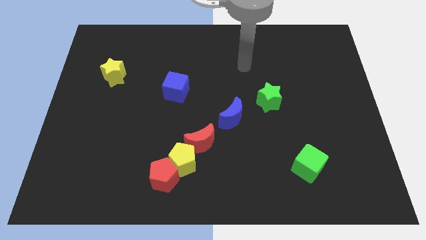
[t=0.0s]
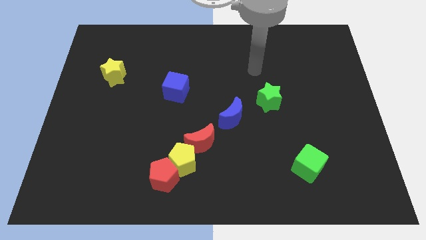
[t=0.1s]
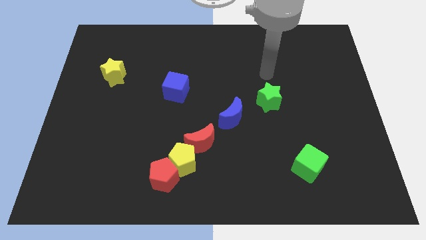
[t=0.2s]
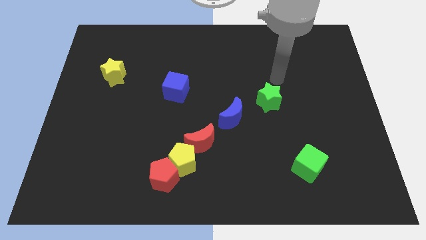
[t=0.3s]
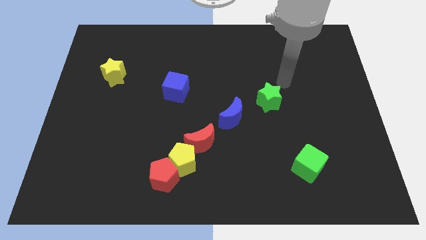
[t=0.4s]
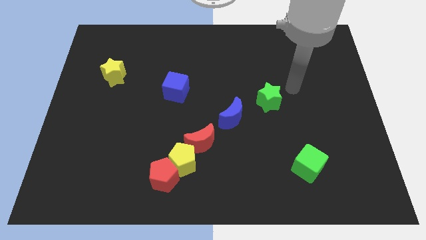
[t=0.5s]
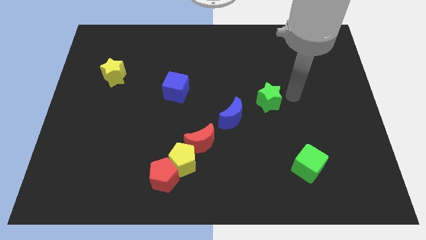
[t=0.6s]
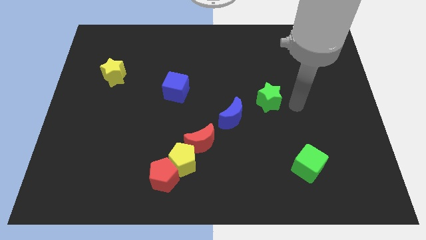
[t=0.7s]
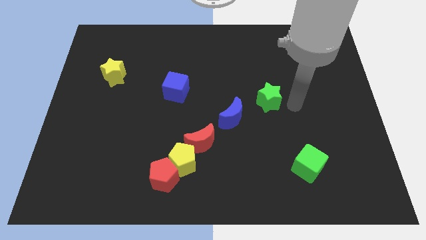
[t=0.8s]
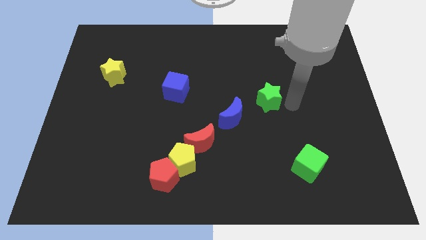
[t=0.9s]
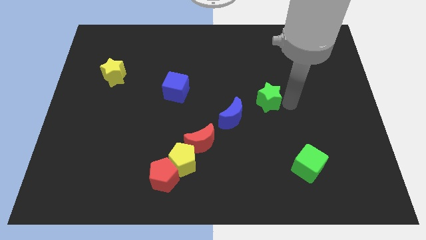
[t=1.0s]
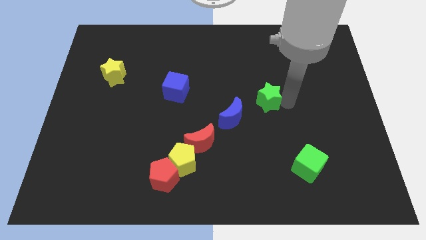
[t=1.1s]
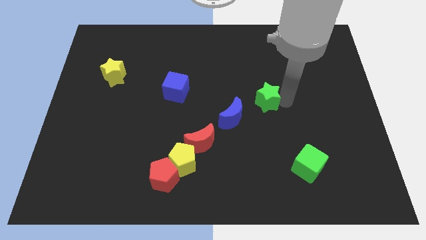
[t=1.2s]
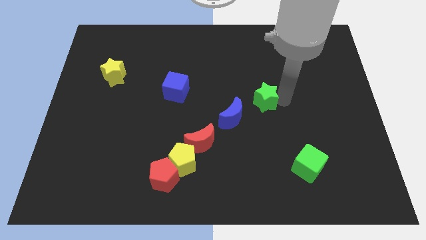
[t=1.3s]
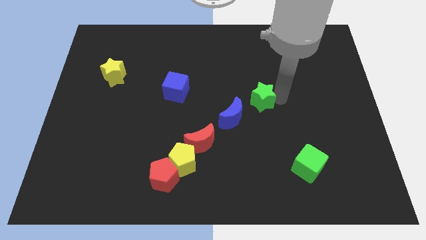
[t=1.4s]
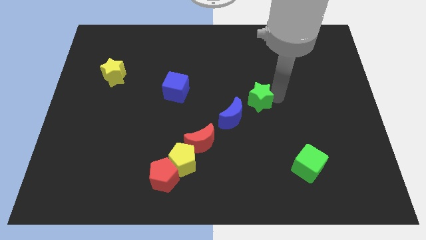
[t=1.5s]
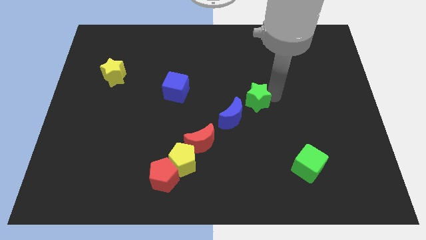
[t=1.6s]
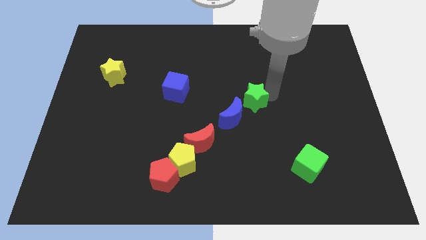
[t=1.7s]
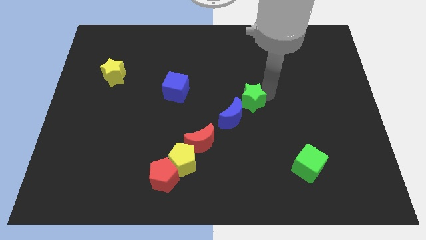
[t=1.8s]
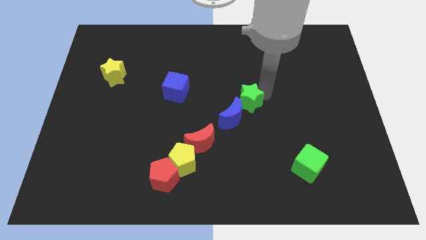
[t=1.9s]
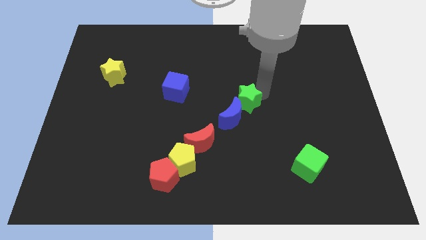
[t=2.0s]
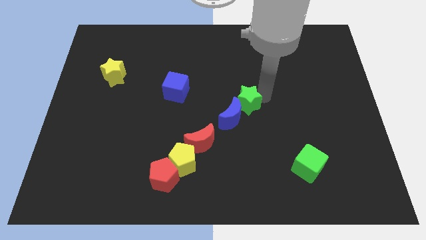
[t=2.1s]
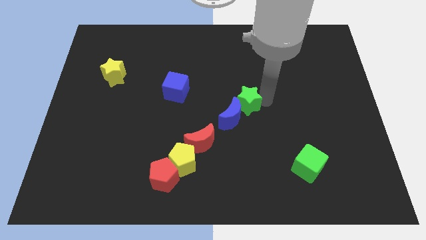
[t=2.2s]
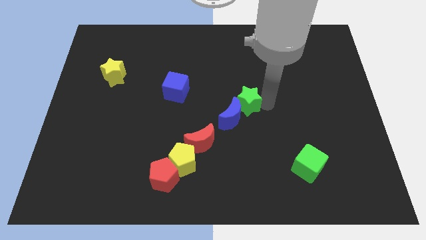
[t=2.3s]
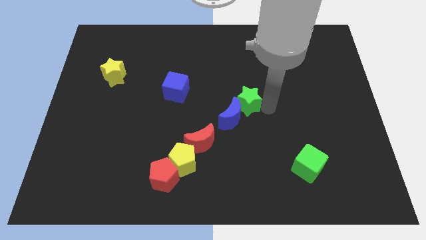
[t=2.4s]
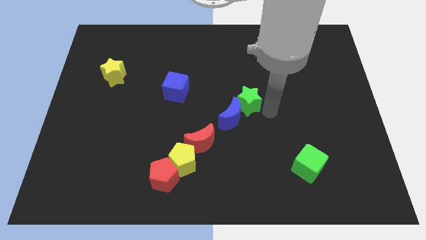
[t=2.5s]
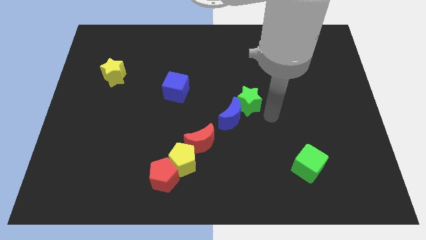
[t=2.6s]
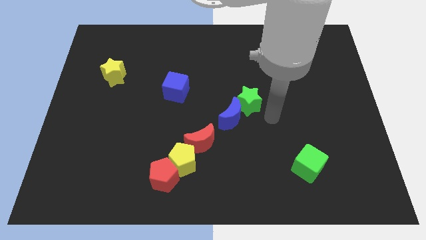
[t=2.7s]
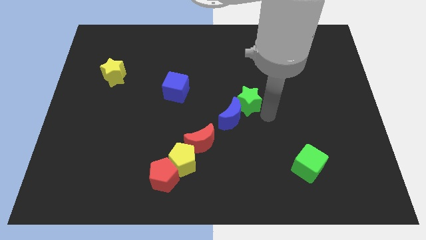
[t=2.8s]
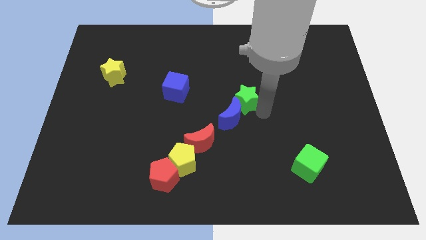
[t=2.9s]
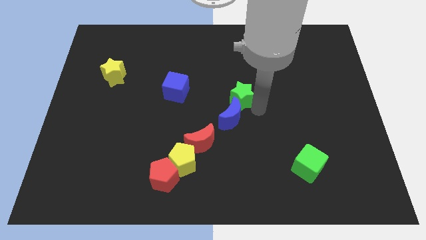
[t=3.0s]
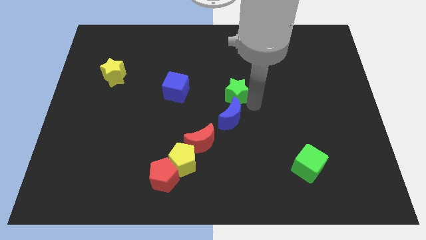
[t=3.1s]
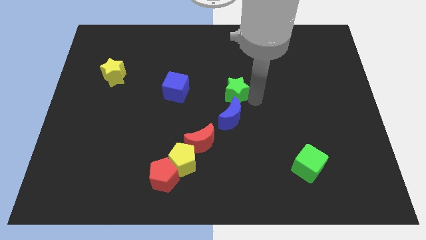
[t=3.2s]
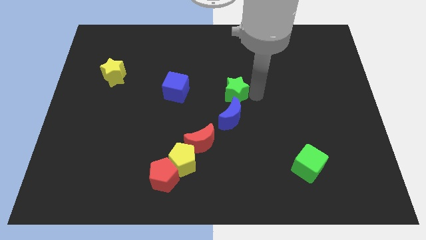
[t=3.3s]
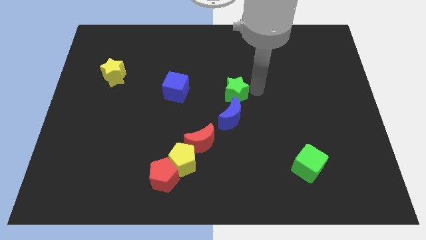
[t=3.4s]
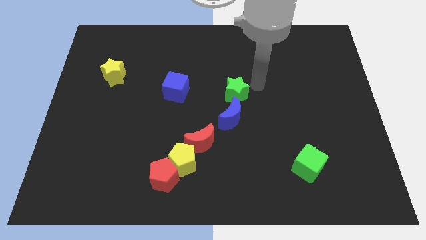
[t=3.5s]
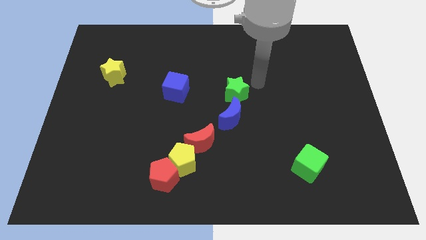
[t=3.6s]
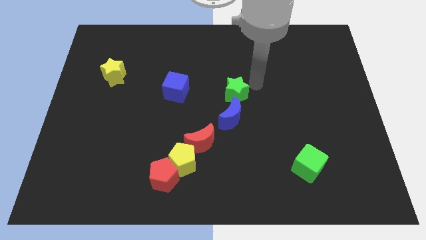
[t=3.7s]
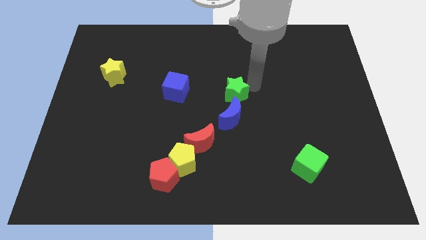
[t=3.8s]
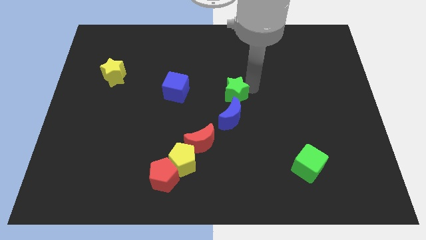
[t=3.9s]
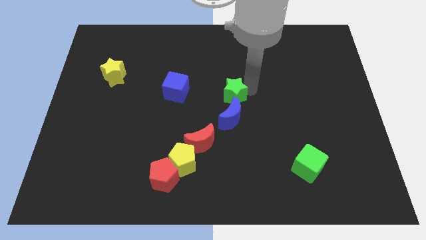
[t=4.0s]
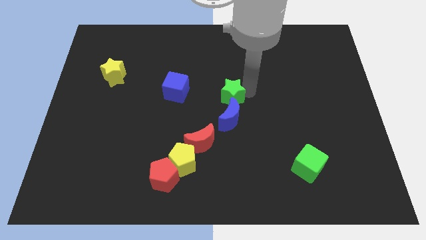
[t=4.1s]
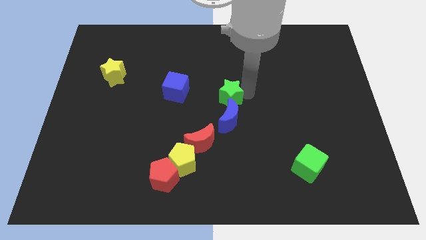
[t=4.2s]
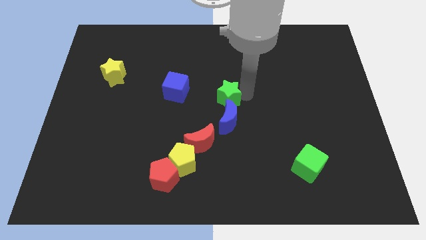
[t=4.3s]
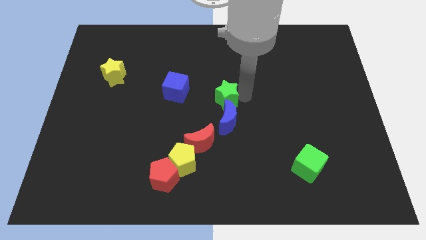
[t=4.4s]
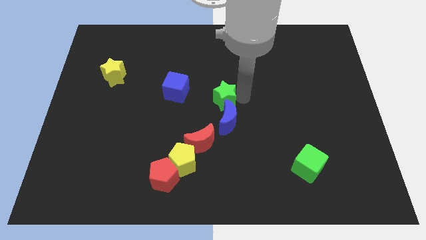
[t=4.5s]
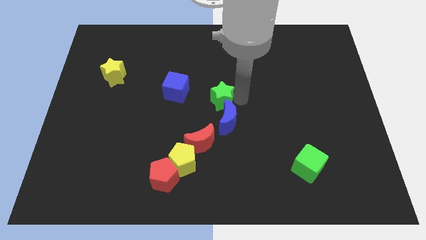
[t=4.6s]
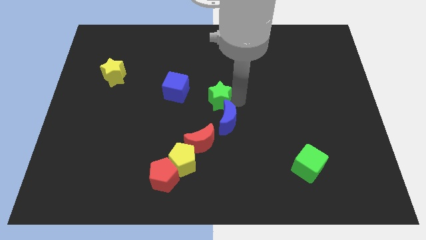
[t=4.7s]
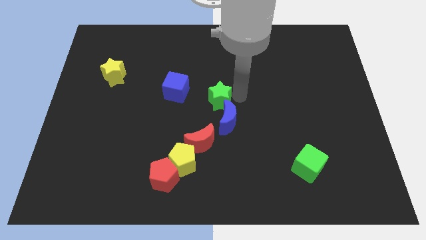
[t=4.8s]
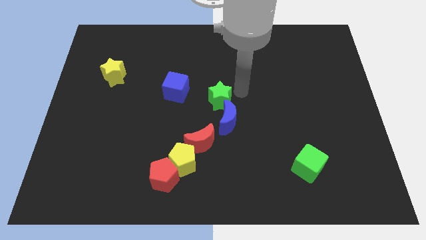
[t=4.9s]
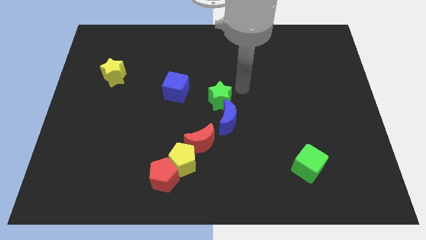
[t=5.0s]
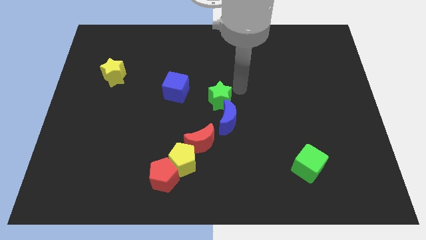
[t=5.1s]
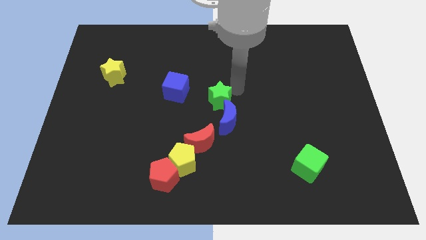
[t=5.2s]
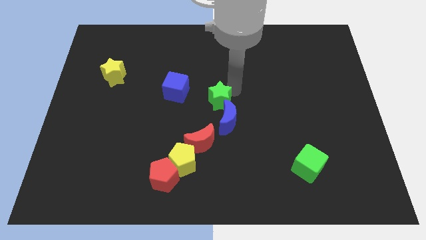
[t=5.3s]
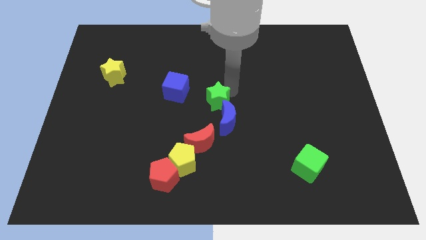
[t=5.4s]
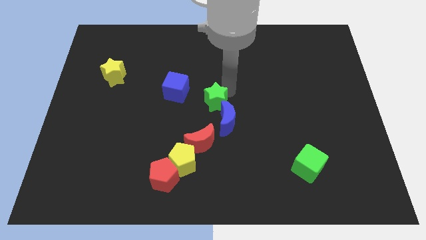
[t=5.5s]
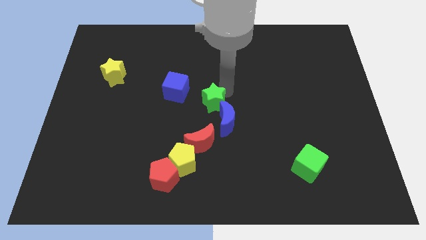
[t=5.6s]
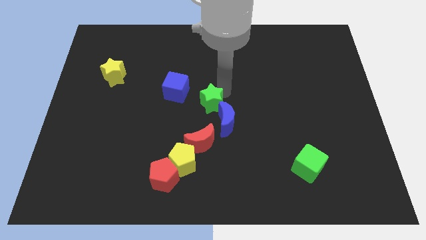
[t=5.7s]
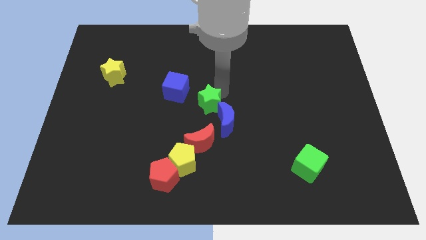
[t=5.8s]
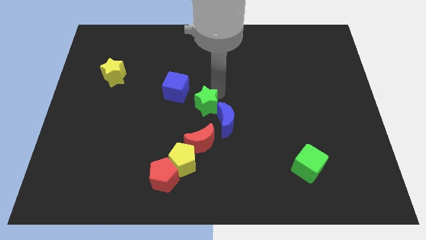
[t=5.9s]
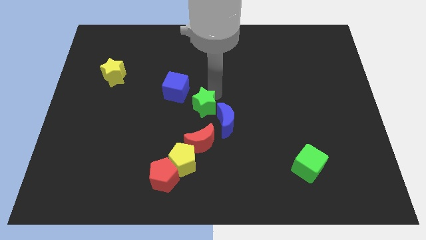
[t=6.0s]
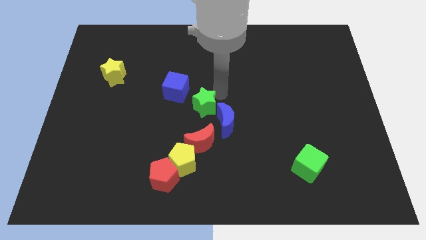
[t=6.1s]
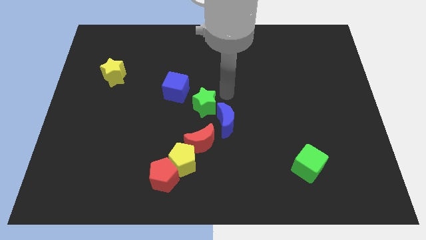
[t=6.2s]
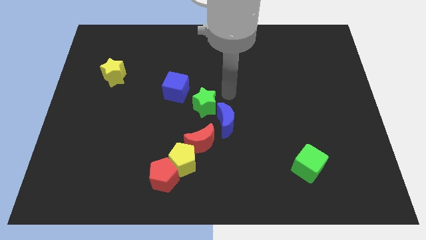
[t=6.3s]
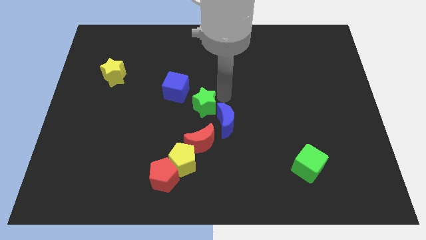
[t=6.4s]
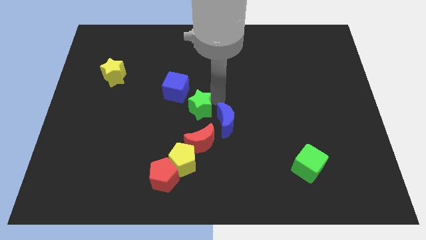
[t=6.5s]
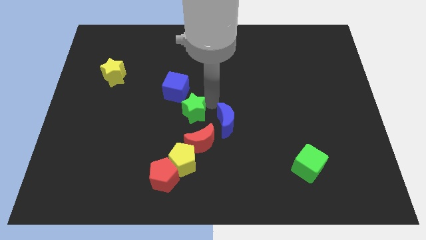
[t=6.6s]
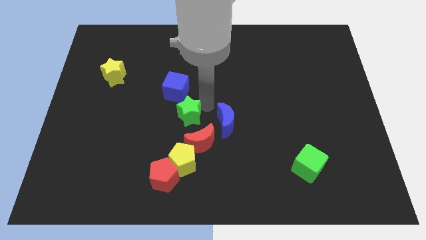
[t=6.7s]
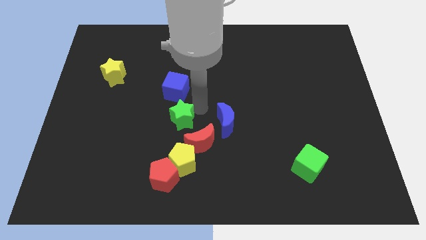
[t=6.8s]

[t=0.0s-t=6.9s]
push the green star to the top of the red pentagon
